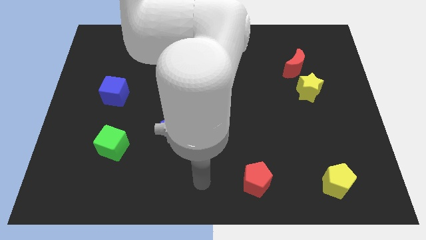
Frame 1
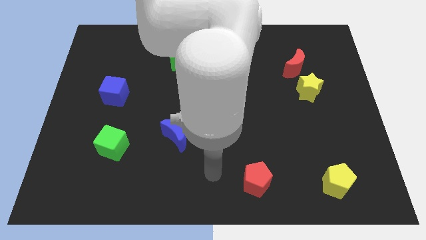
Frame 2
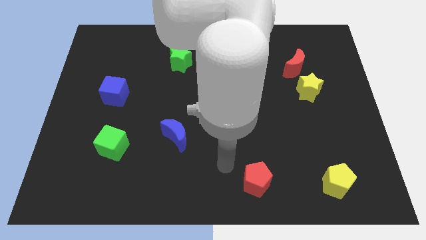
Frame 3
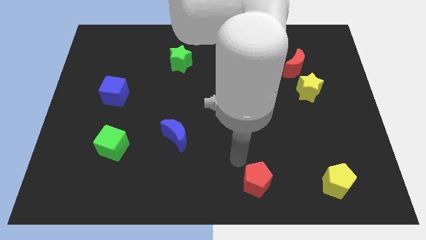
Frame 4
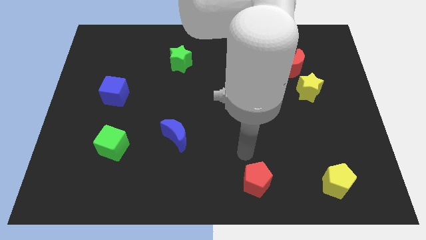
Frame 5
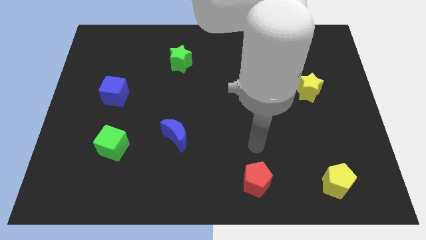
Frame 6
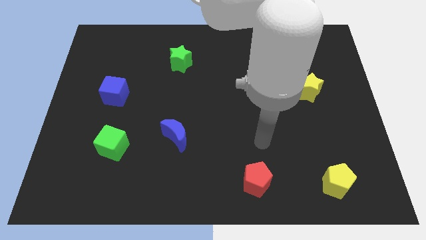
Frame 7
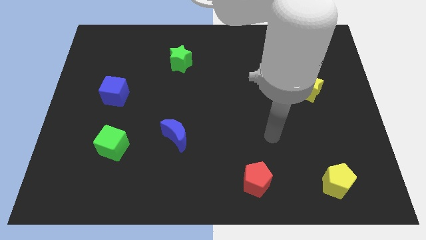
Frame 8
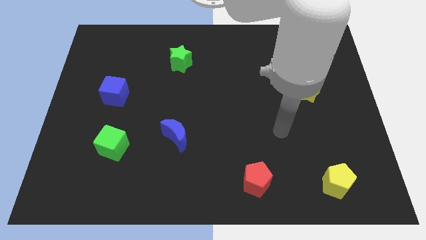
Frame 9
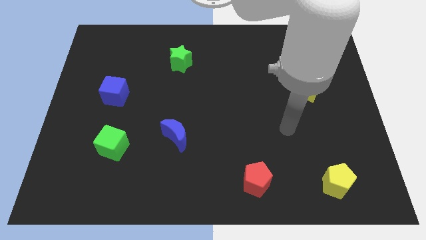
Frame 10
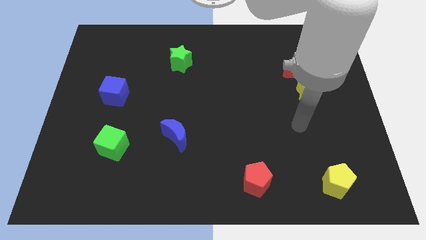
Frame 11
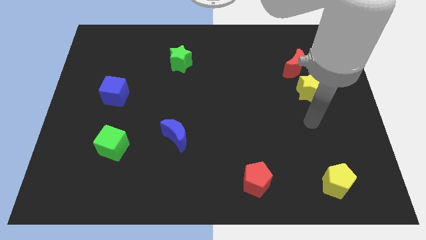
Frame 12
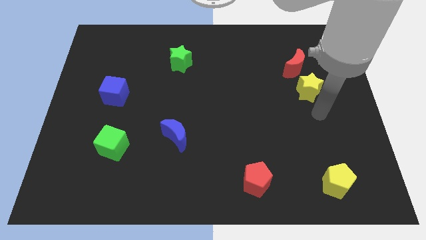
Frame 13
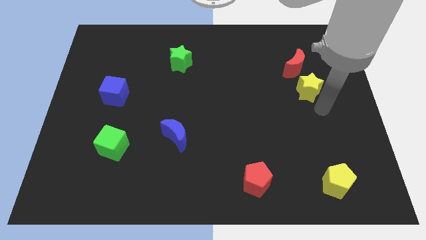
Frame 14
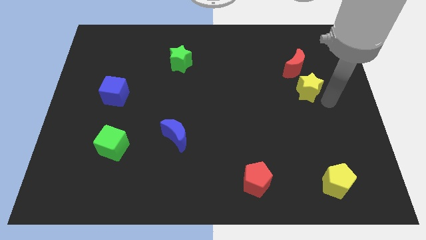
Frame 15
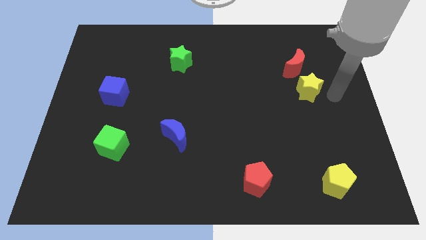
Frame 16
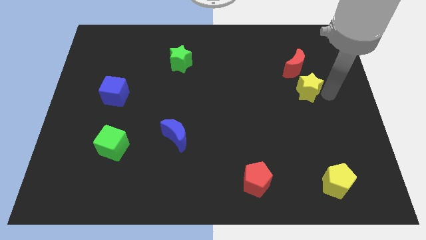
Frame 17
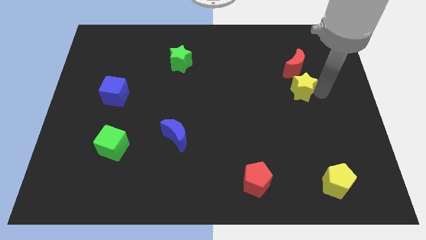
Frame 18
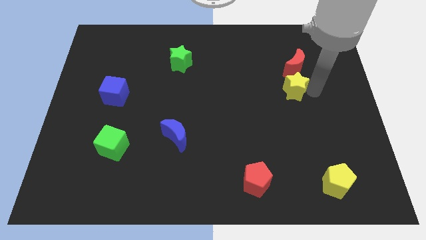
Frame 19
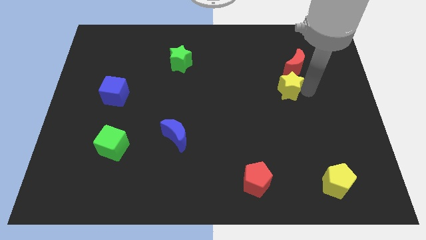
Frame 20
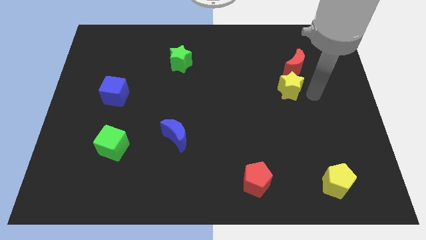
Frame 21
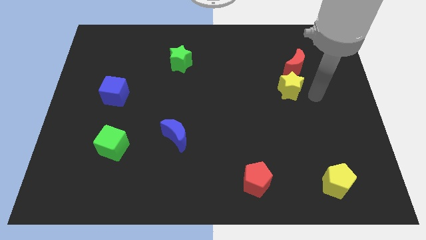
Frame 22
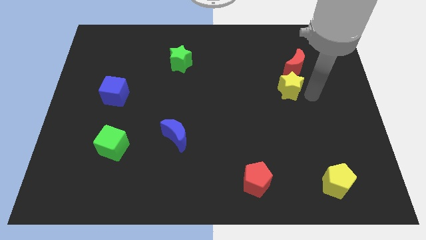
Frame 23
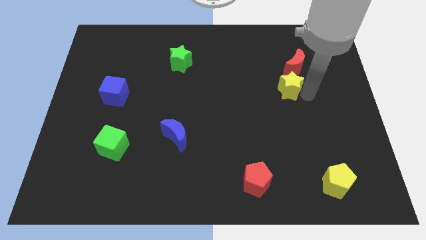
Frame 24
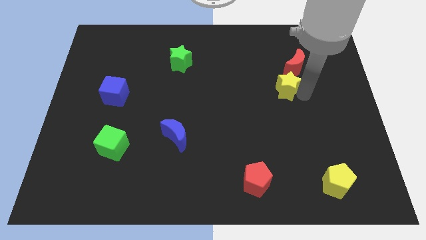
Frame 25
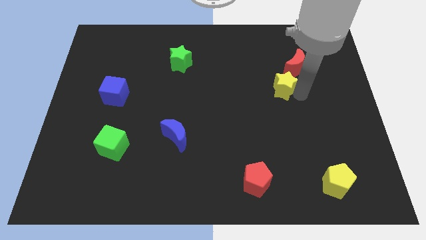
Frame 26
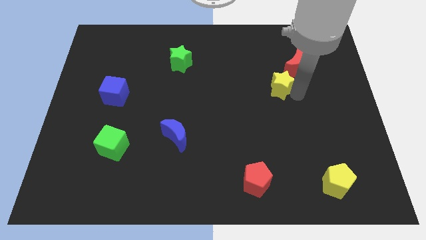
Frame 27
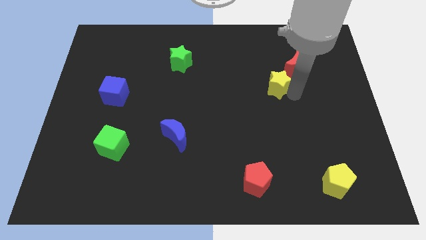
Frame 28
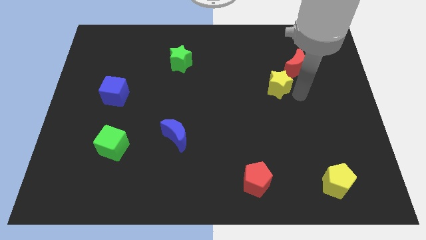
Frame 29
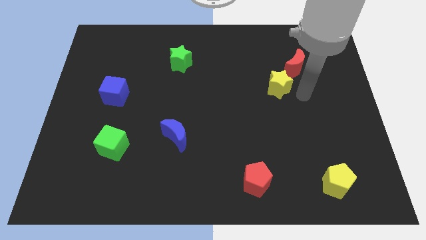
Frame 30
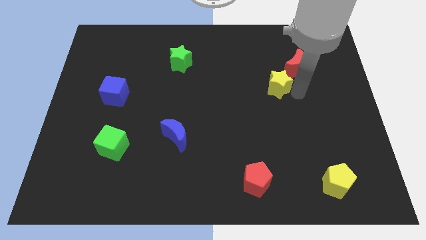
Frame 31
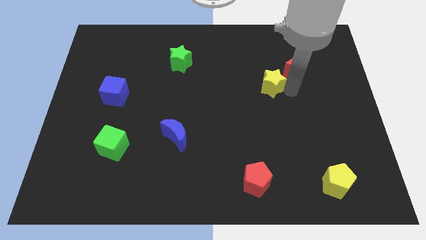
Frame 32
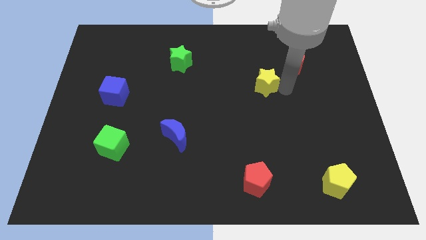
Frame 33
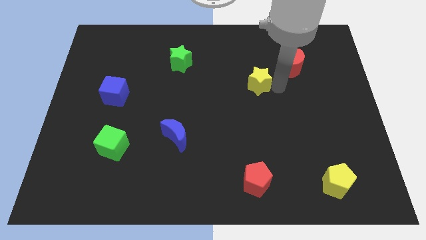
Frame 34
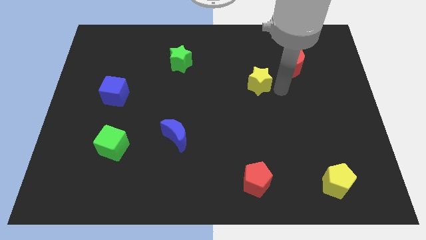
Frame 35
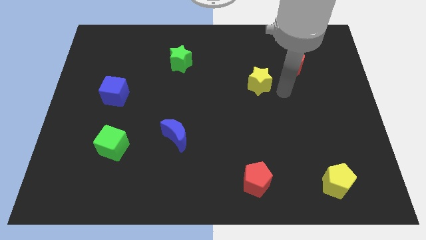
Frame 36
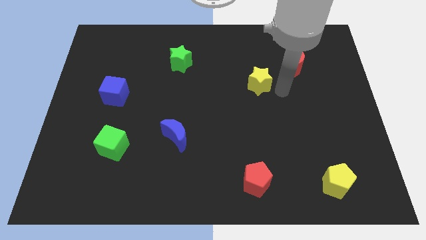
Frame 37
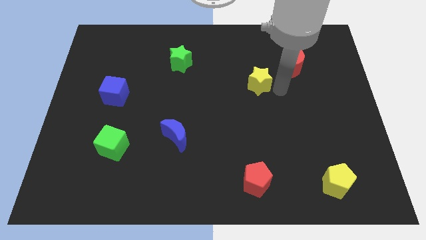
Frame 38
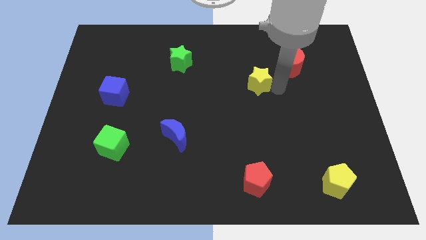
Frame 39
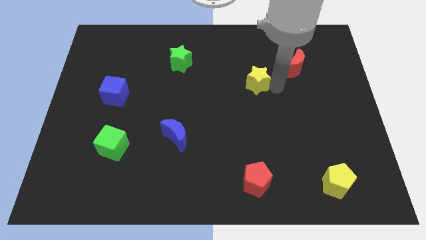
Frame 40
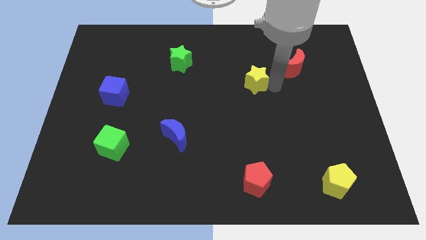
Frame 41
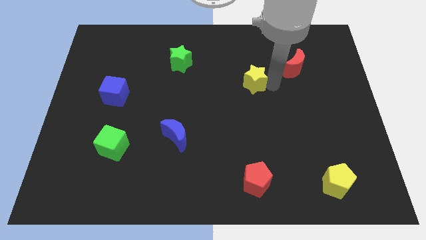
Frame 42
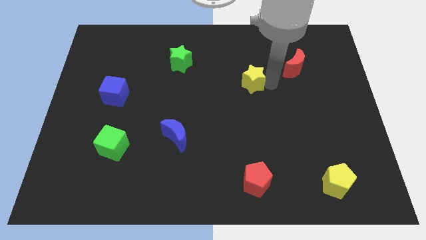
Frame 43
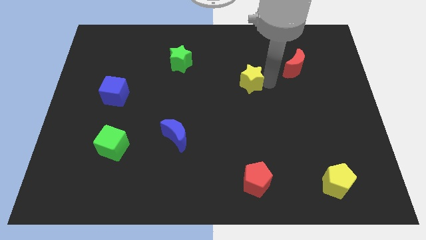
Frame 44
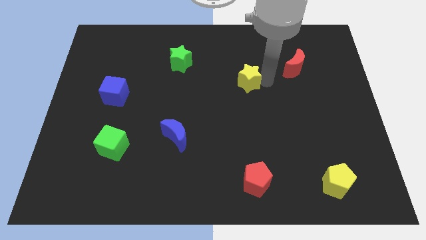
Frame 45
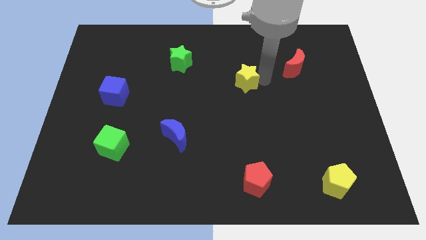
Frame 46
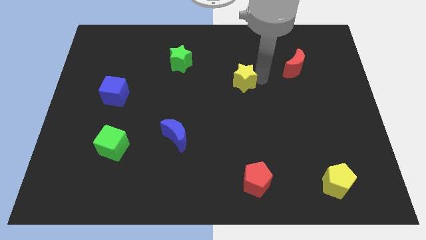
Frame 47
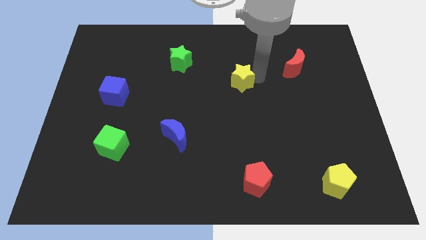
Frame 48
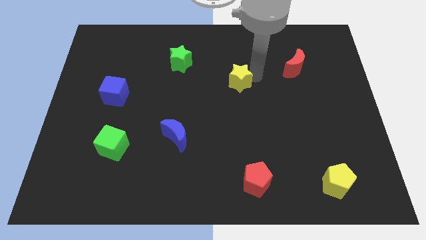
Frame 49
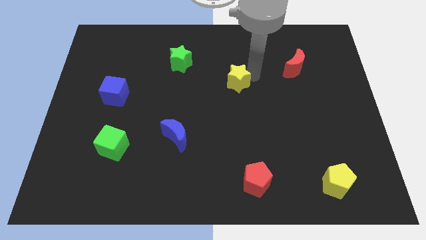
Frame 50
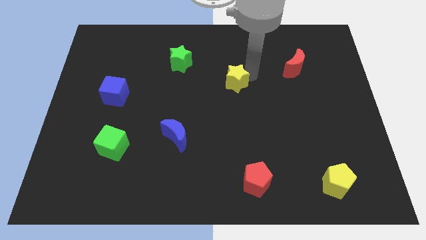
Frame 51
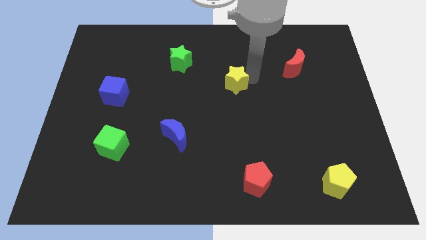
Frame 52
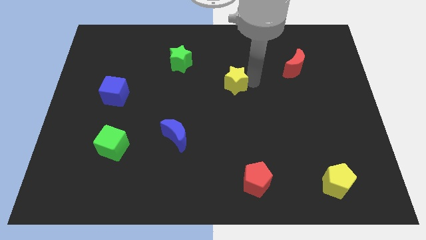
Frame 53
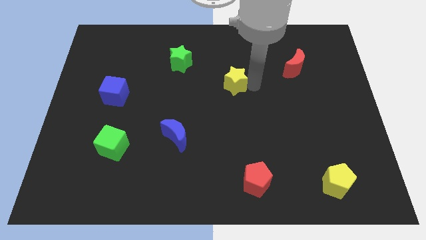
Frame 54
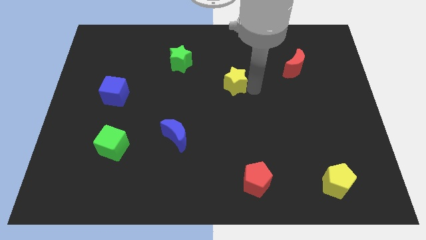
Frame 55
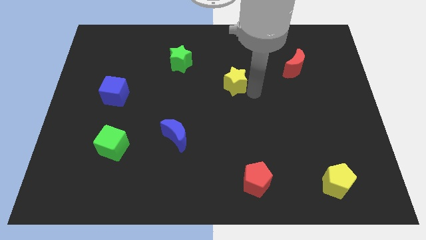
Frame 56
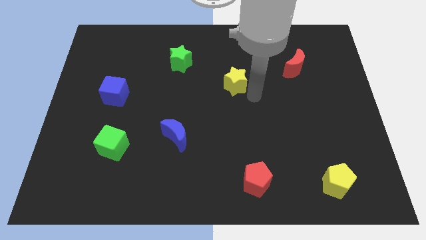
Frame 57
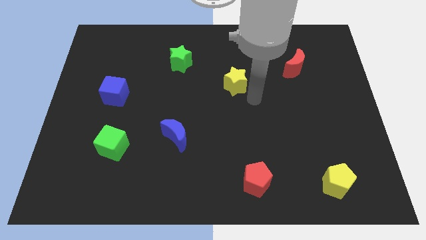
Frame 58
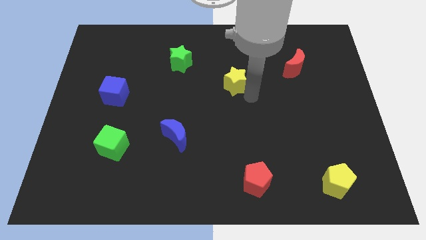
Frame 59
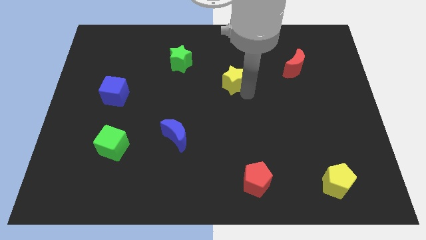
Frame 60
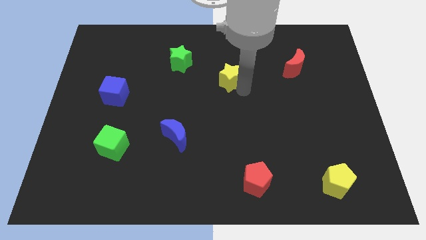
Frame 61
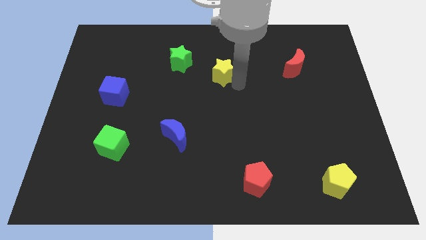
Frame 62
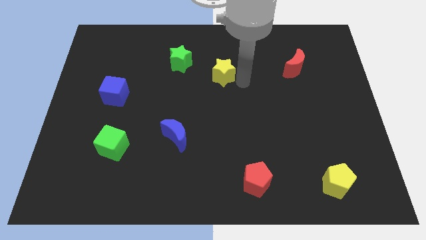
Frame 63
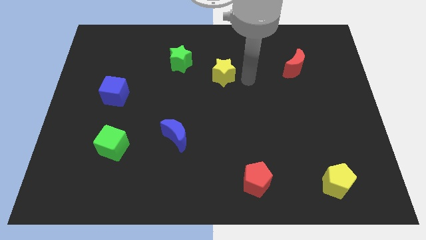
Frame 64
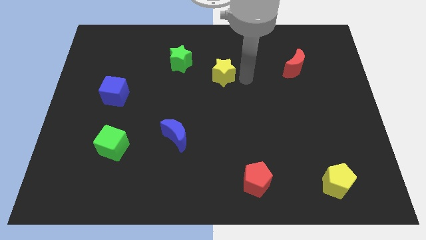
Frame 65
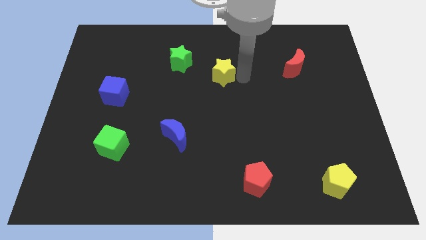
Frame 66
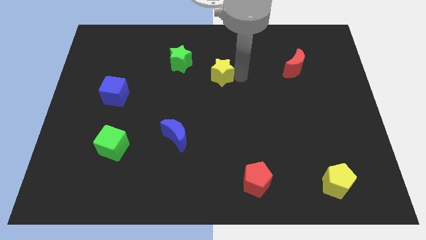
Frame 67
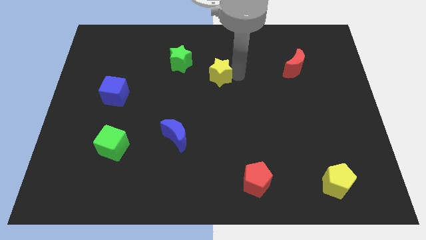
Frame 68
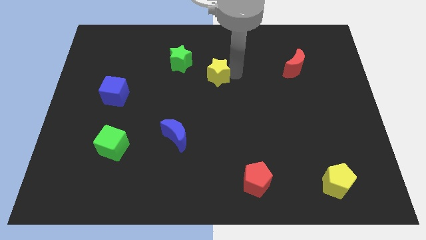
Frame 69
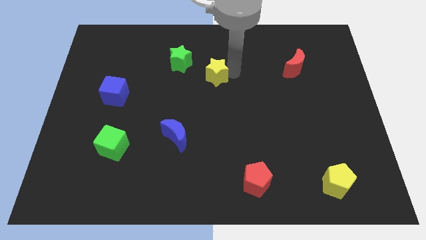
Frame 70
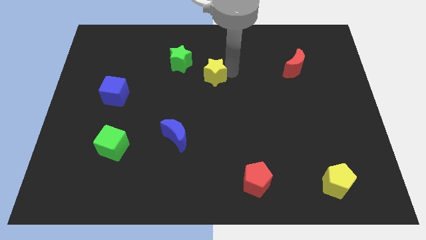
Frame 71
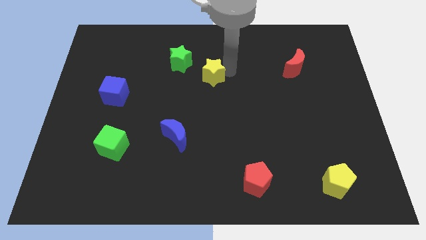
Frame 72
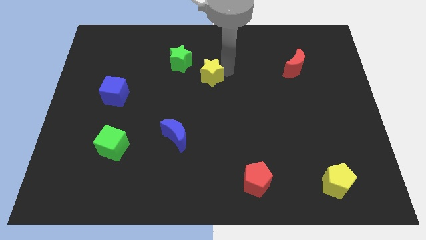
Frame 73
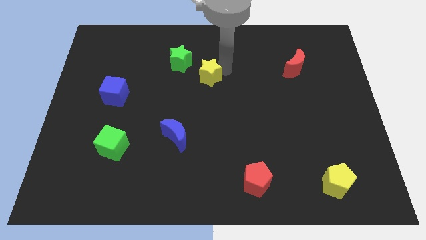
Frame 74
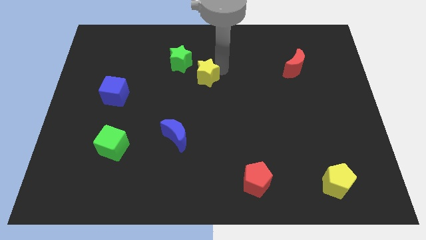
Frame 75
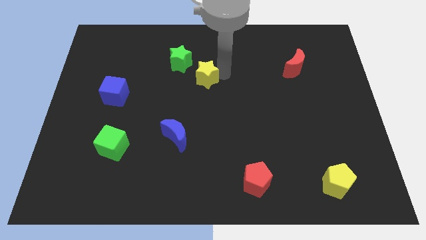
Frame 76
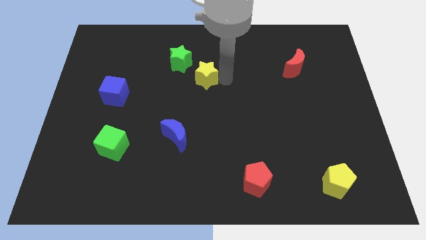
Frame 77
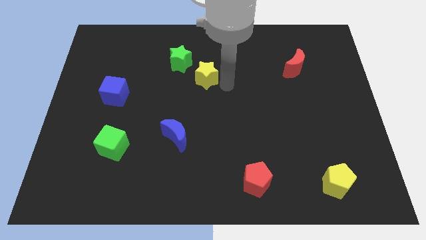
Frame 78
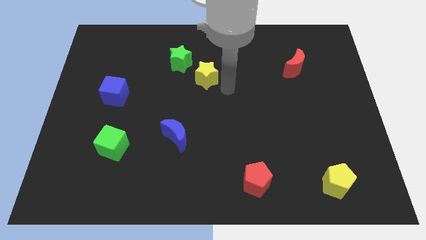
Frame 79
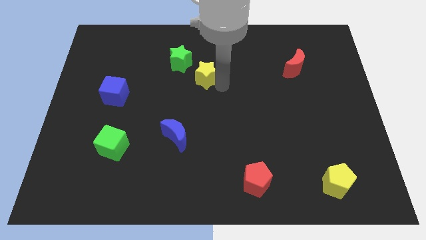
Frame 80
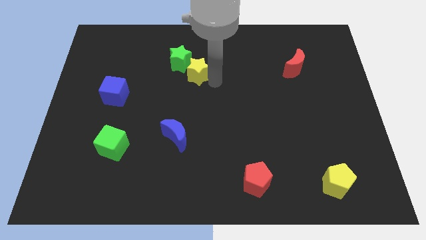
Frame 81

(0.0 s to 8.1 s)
move the yellow star towards the green star
